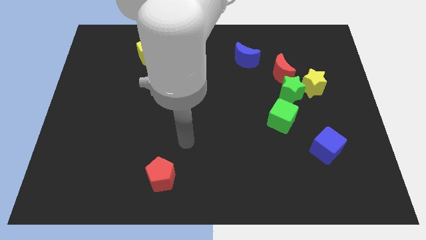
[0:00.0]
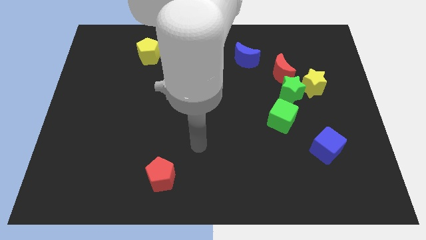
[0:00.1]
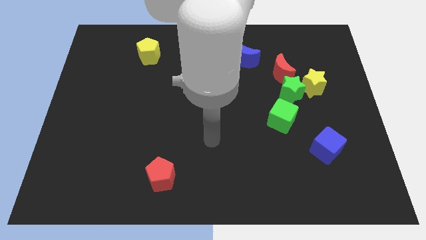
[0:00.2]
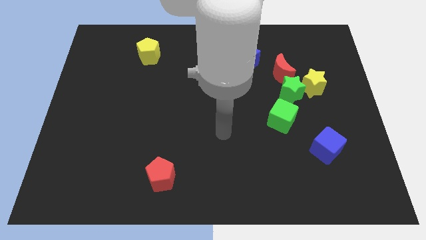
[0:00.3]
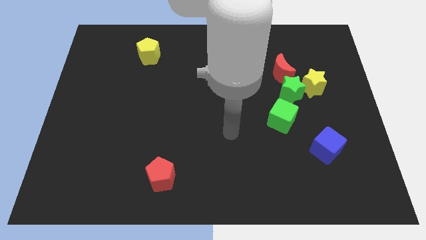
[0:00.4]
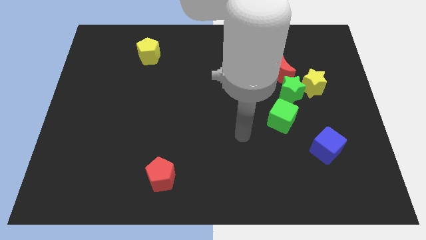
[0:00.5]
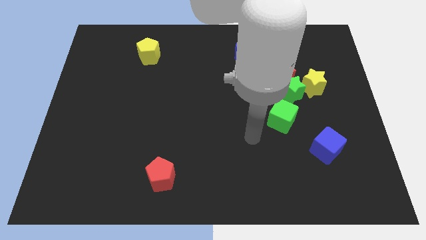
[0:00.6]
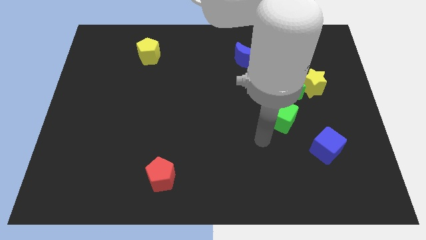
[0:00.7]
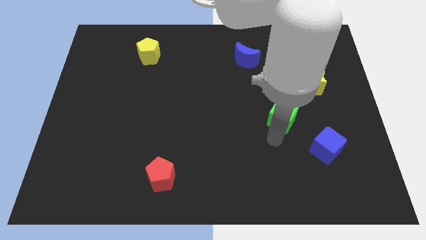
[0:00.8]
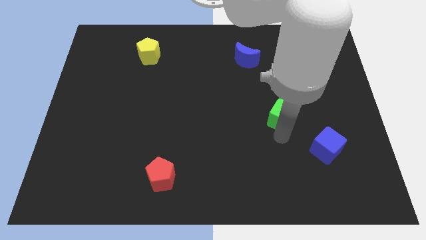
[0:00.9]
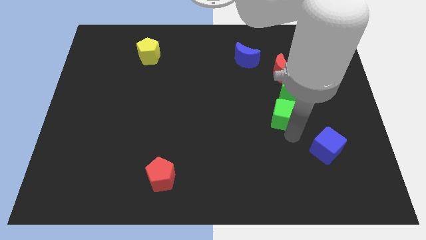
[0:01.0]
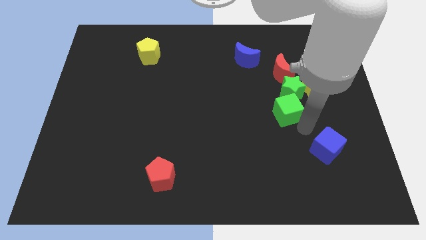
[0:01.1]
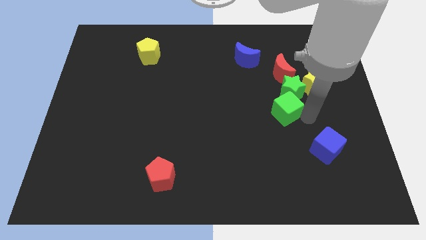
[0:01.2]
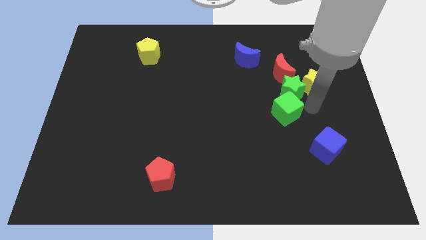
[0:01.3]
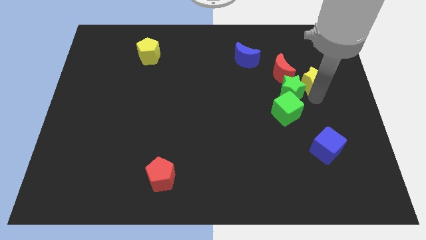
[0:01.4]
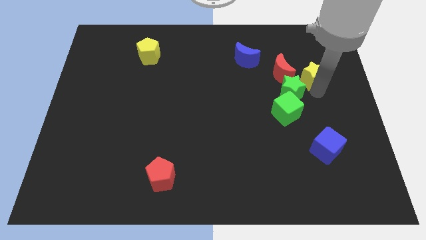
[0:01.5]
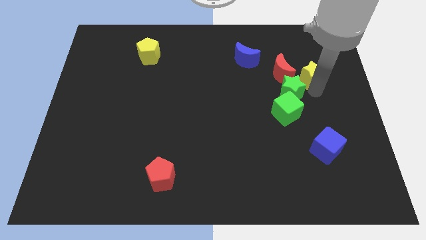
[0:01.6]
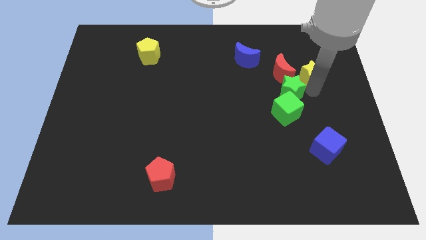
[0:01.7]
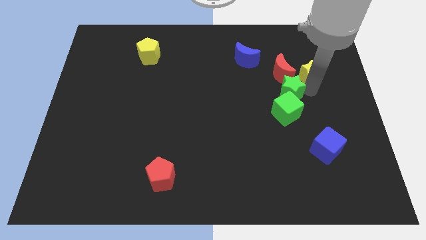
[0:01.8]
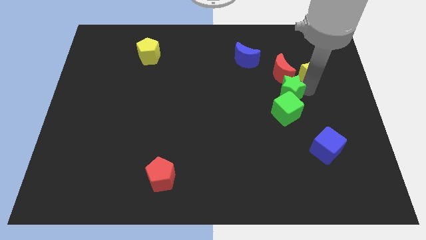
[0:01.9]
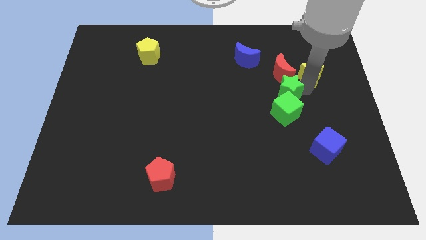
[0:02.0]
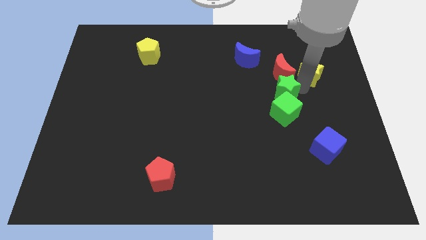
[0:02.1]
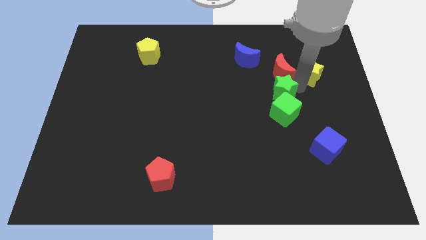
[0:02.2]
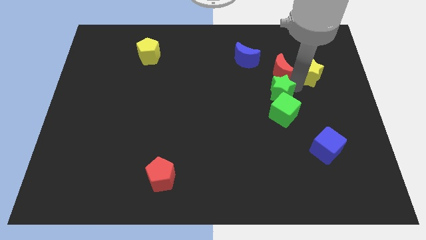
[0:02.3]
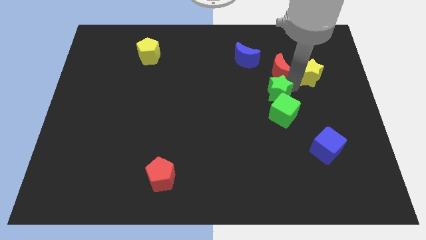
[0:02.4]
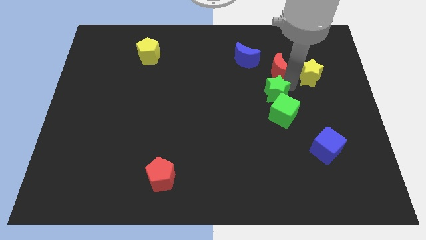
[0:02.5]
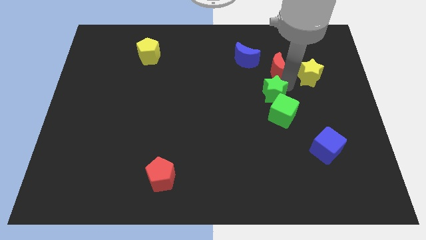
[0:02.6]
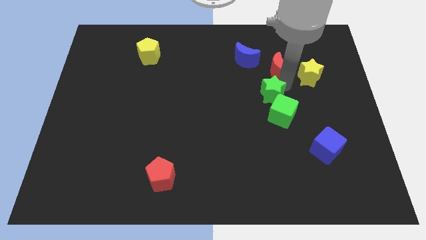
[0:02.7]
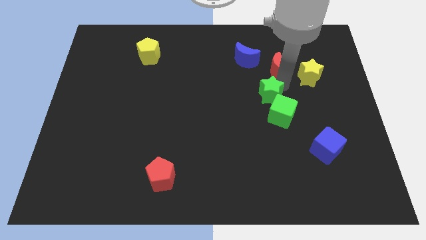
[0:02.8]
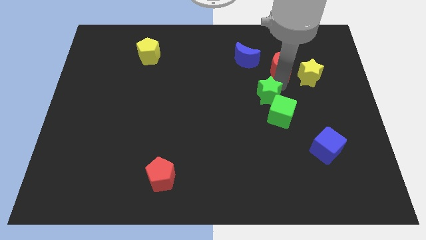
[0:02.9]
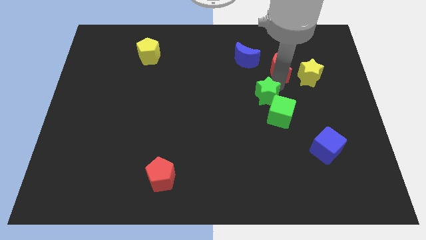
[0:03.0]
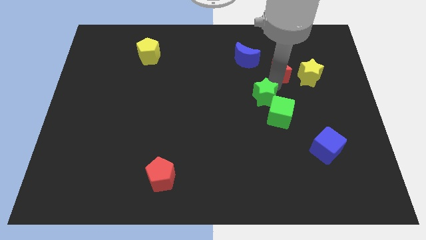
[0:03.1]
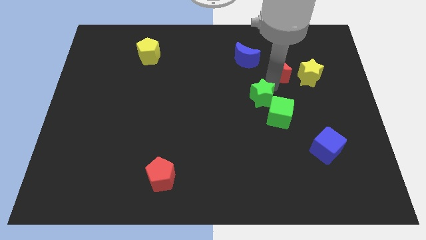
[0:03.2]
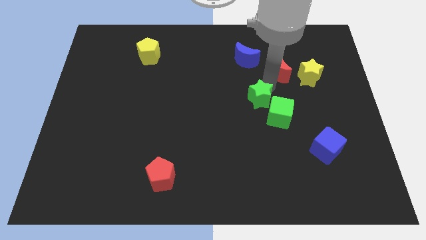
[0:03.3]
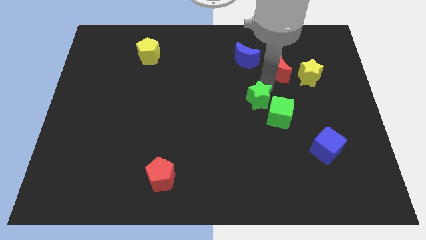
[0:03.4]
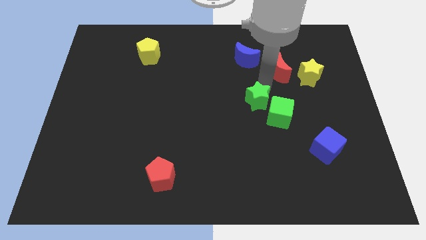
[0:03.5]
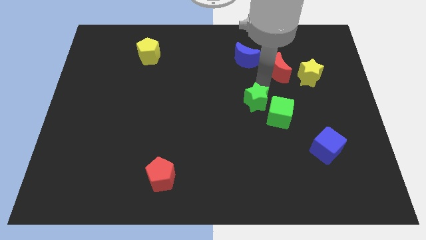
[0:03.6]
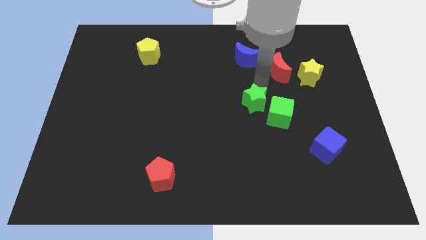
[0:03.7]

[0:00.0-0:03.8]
separate the green star from the yellow star, red moon, and green cube

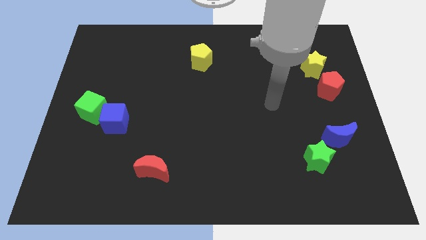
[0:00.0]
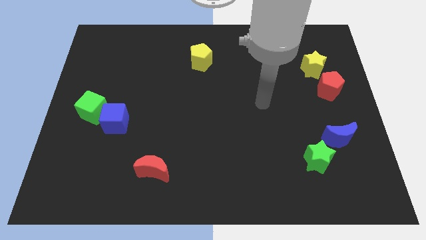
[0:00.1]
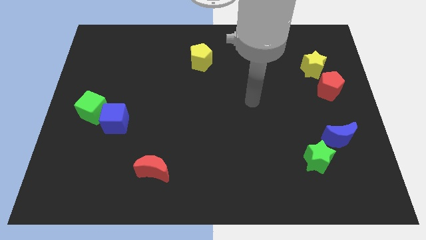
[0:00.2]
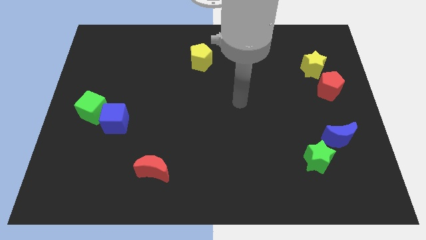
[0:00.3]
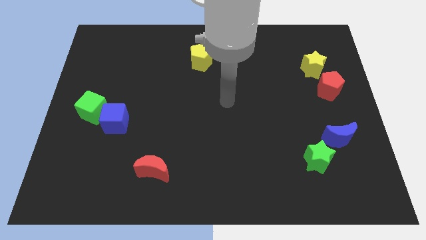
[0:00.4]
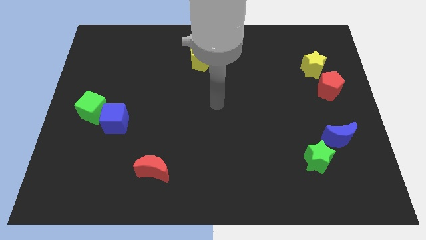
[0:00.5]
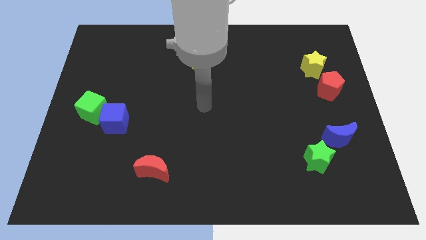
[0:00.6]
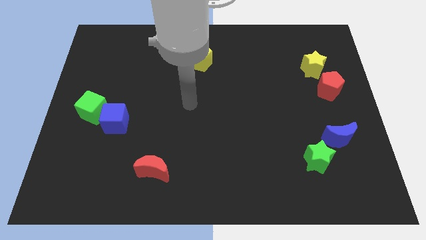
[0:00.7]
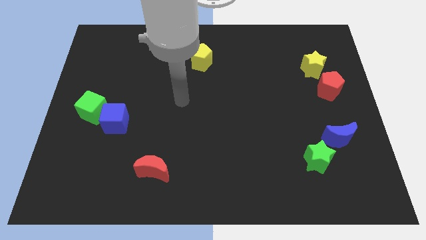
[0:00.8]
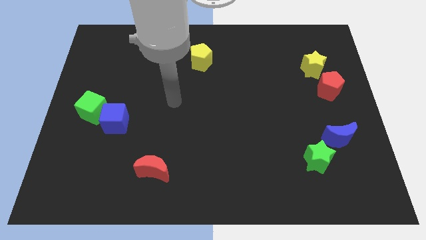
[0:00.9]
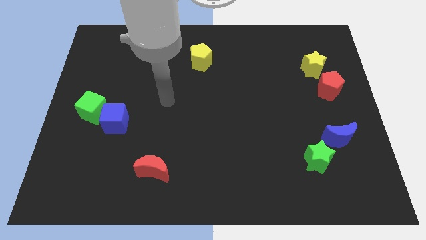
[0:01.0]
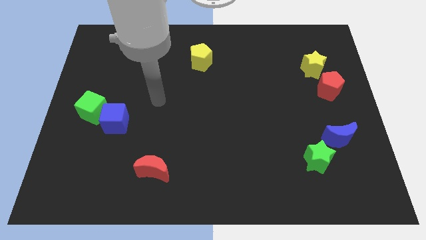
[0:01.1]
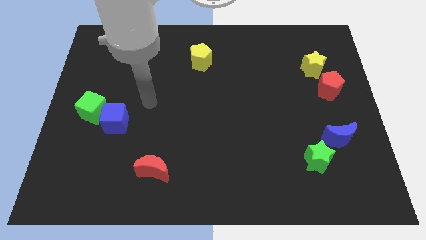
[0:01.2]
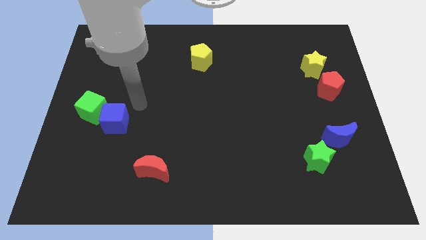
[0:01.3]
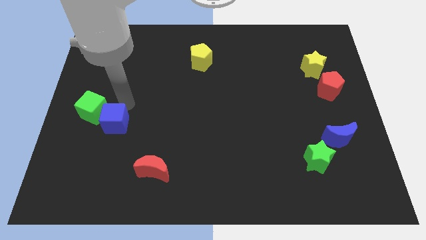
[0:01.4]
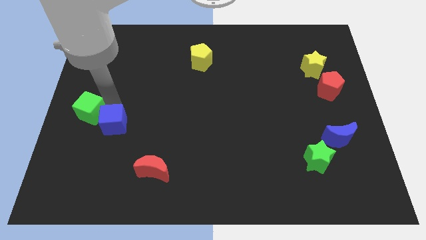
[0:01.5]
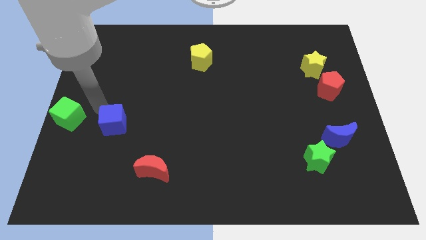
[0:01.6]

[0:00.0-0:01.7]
separate the blue cube from the green cube

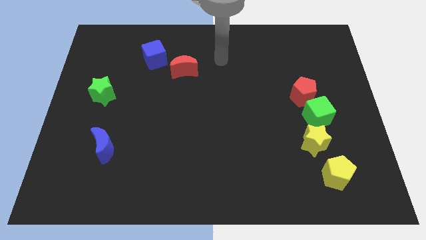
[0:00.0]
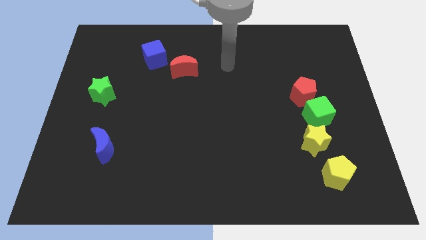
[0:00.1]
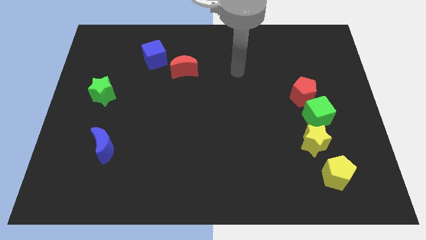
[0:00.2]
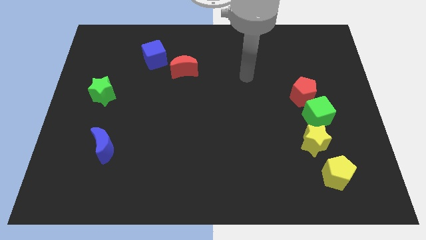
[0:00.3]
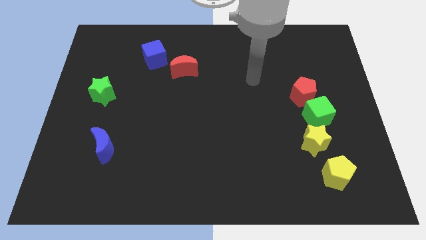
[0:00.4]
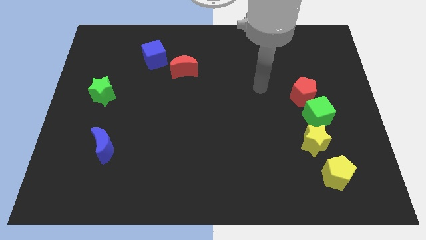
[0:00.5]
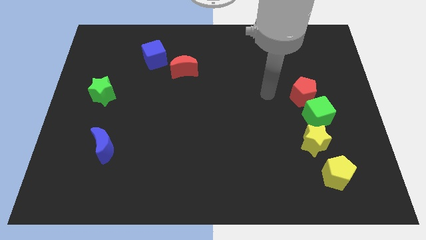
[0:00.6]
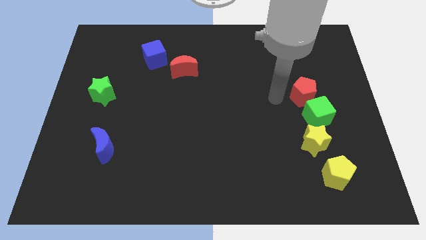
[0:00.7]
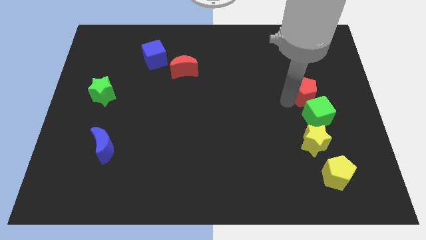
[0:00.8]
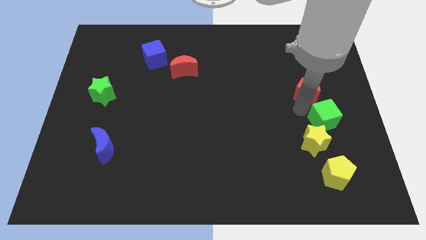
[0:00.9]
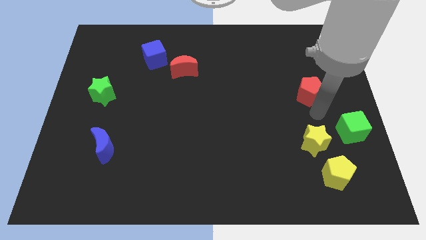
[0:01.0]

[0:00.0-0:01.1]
pull the red pentagon apart from the green cube

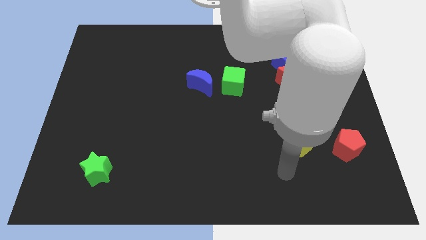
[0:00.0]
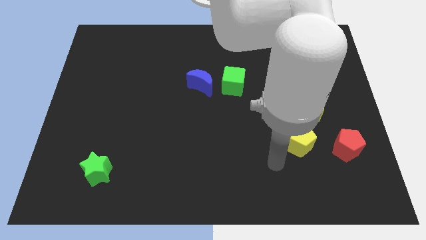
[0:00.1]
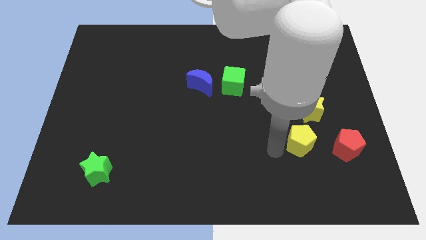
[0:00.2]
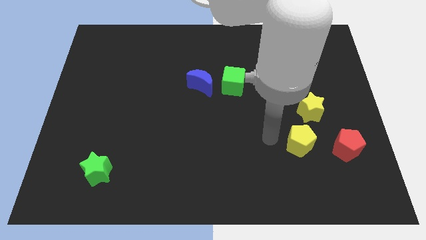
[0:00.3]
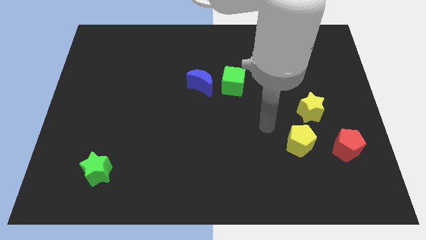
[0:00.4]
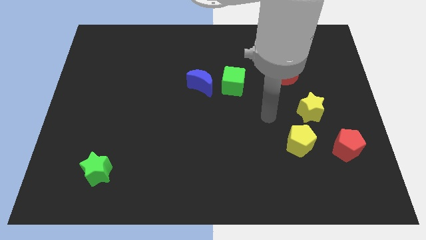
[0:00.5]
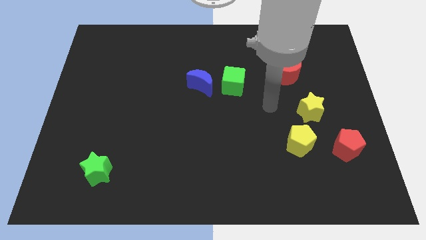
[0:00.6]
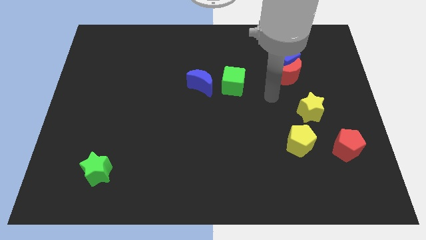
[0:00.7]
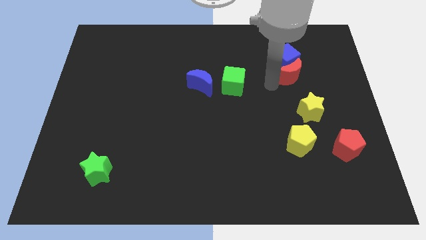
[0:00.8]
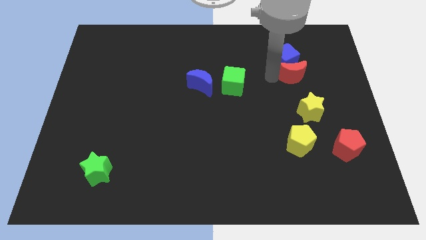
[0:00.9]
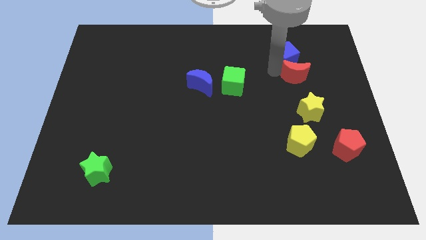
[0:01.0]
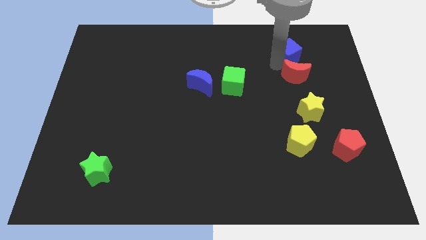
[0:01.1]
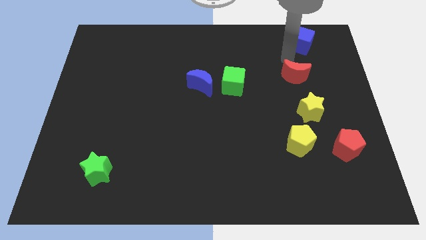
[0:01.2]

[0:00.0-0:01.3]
pull the red moon apart from the blue cube

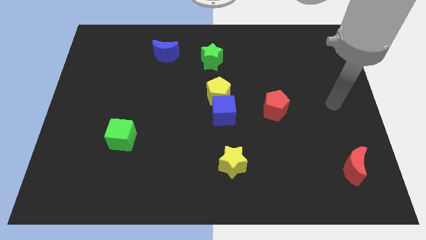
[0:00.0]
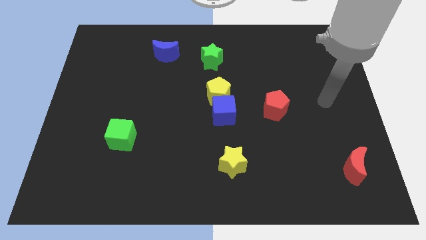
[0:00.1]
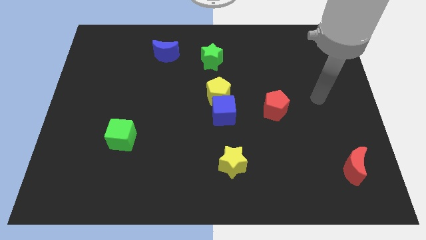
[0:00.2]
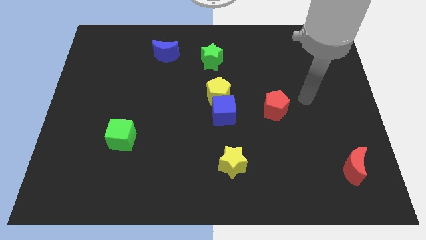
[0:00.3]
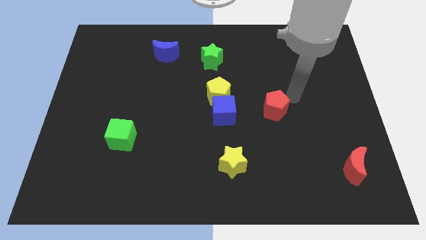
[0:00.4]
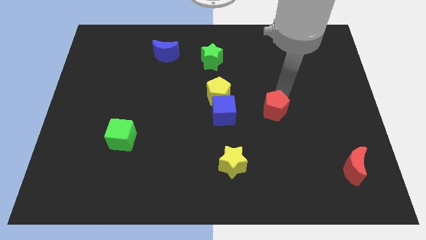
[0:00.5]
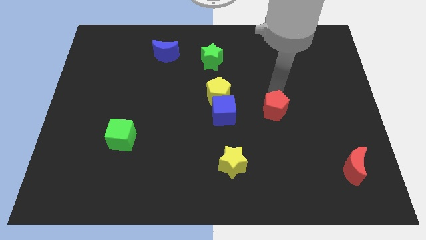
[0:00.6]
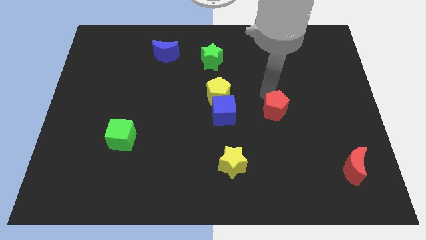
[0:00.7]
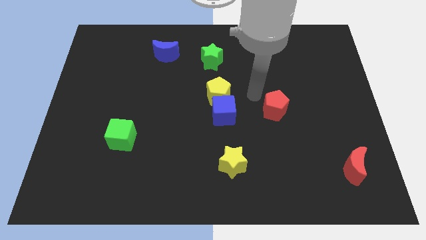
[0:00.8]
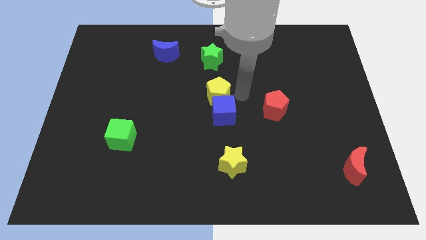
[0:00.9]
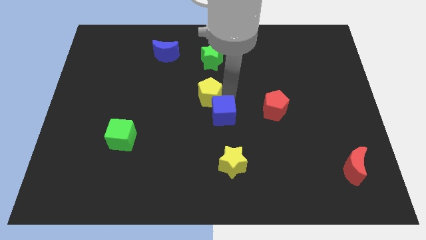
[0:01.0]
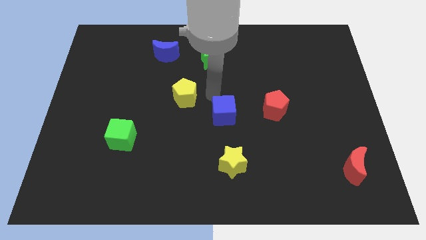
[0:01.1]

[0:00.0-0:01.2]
separate the blue cube from the yellow pentagon
